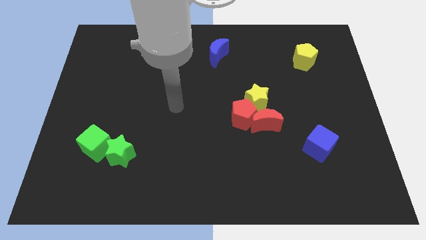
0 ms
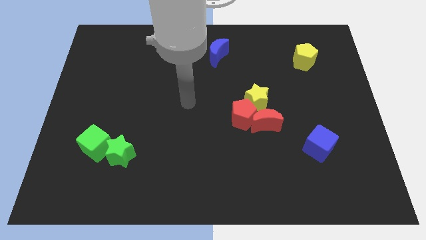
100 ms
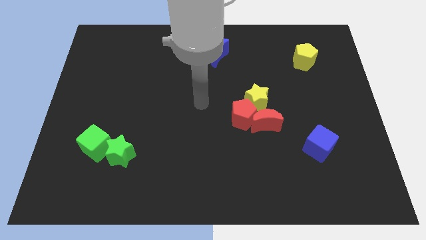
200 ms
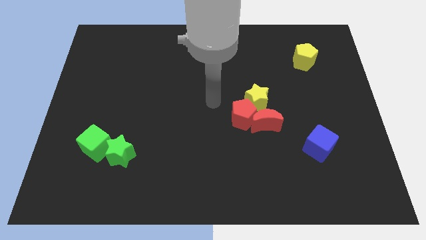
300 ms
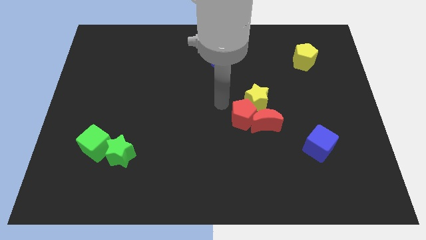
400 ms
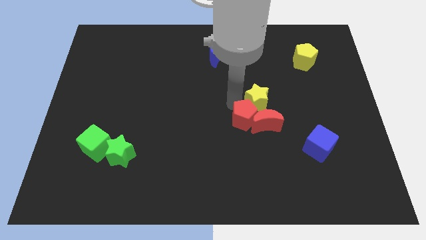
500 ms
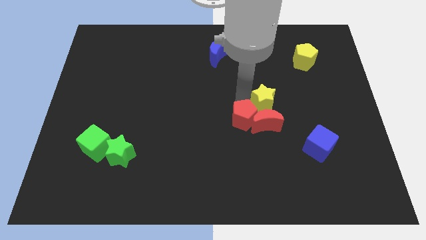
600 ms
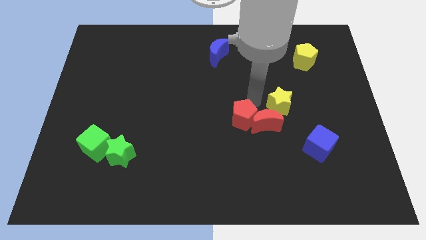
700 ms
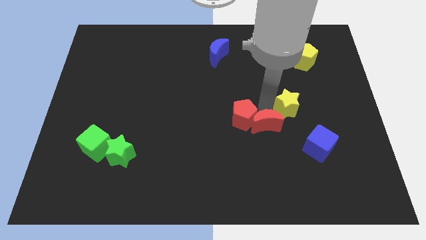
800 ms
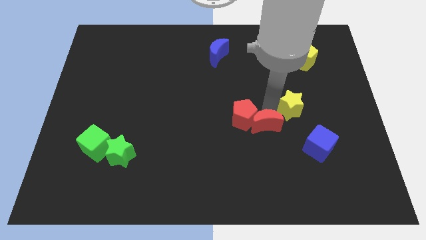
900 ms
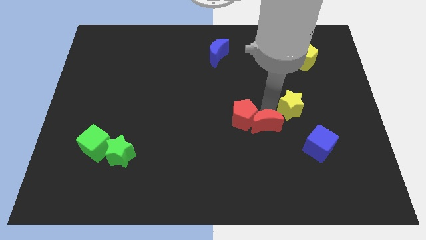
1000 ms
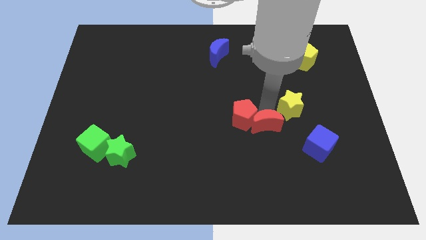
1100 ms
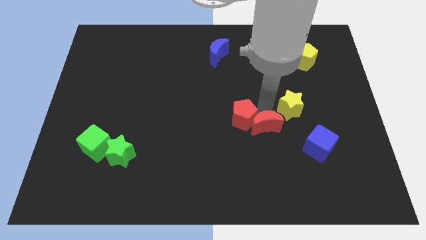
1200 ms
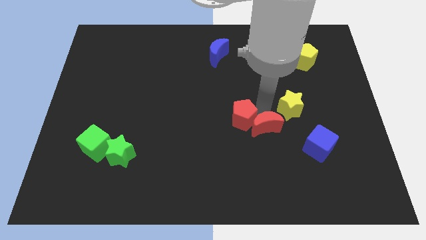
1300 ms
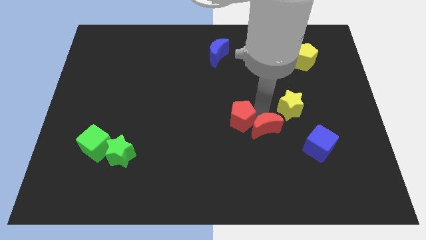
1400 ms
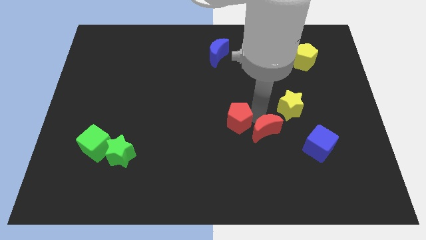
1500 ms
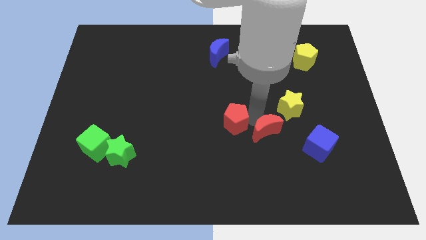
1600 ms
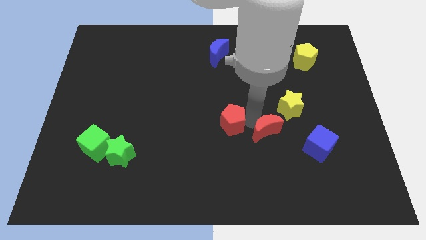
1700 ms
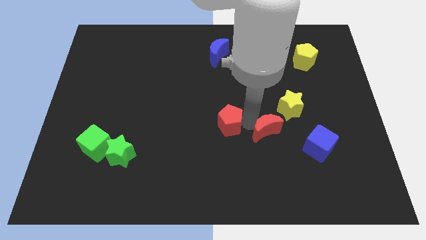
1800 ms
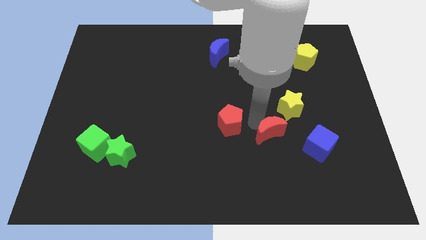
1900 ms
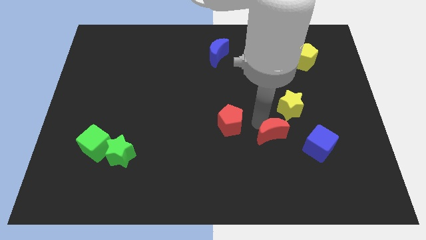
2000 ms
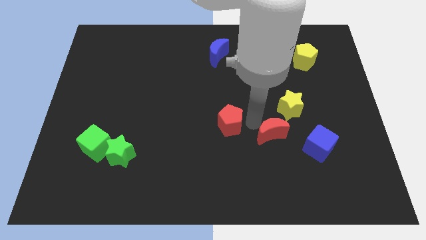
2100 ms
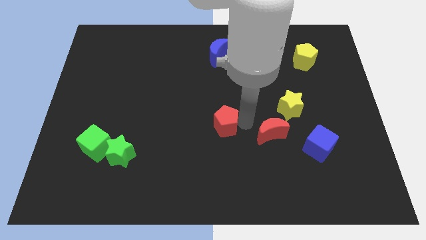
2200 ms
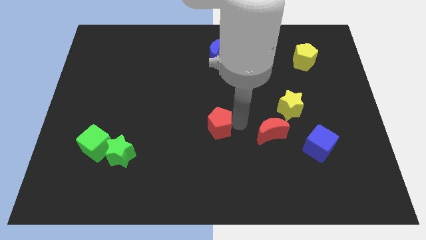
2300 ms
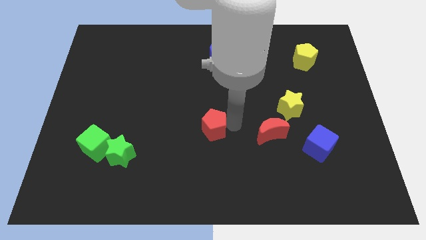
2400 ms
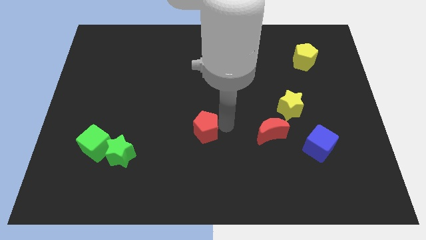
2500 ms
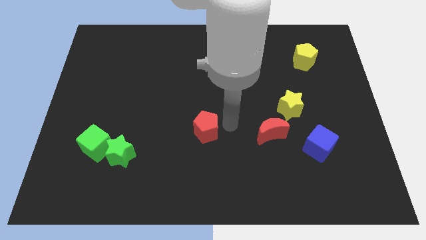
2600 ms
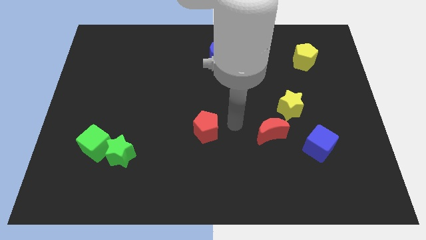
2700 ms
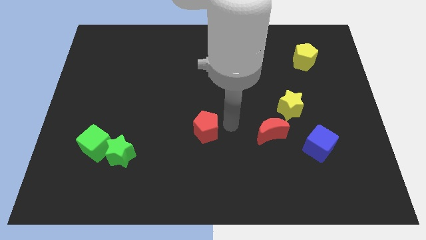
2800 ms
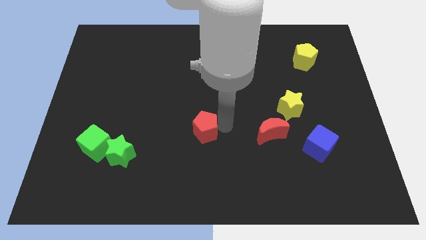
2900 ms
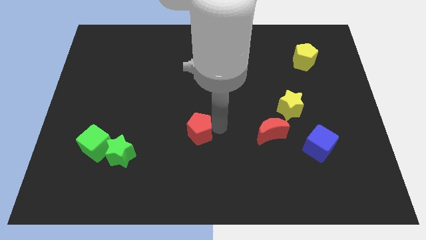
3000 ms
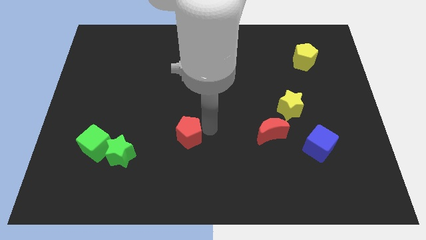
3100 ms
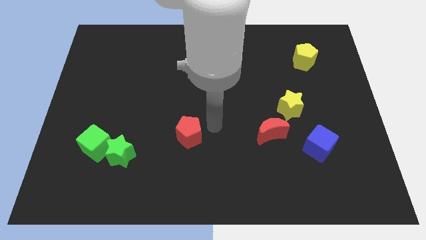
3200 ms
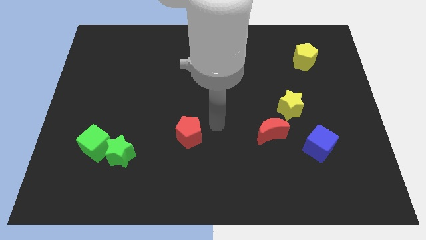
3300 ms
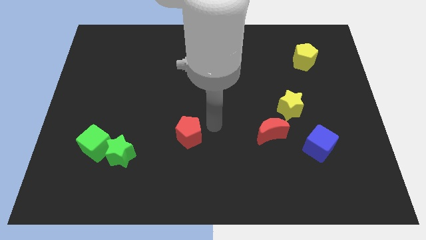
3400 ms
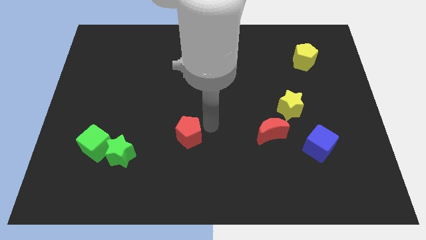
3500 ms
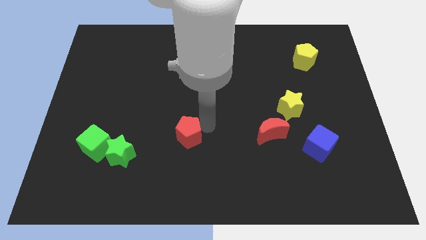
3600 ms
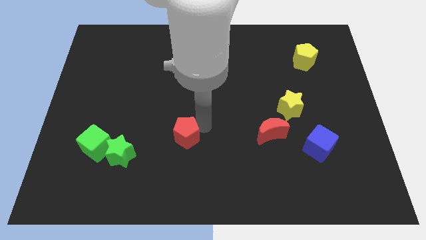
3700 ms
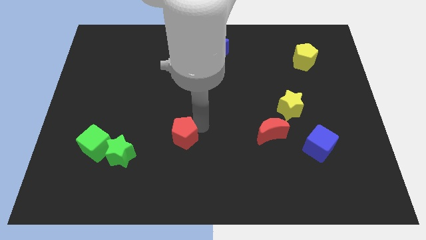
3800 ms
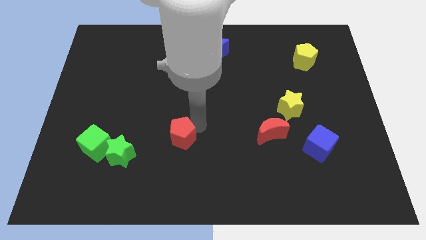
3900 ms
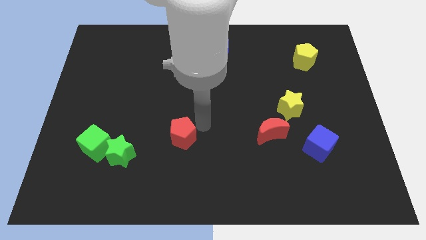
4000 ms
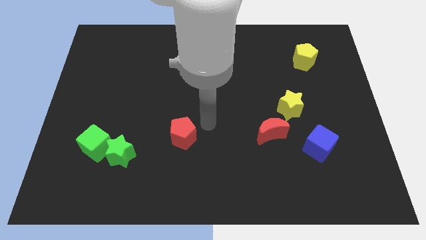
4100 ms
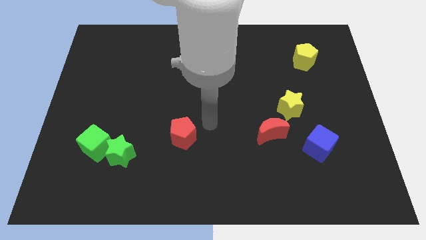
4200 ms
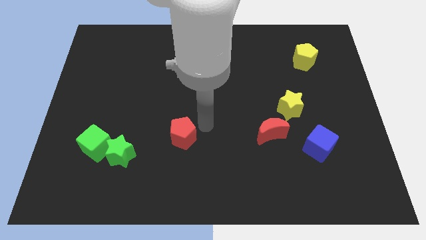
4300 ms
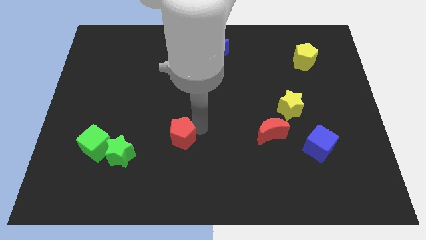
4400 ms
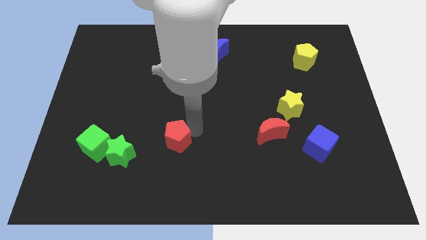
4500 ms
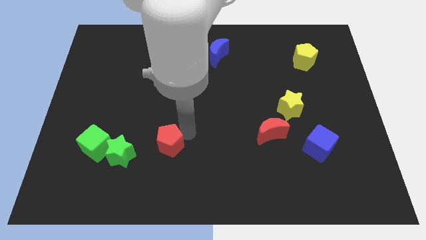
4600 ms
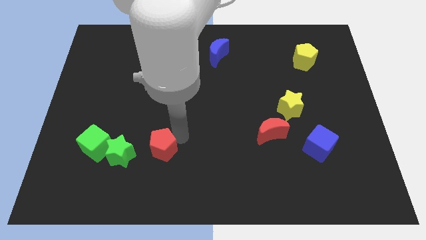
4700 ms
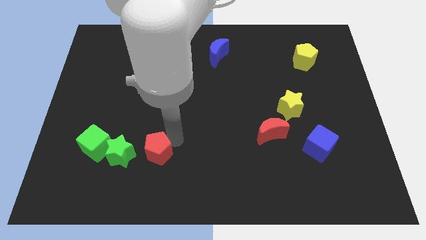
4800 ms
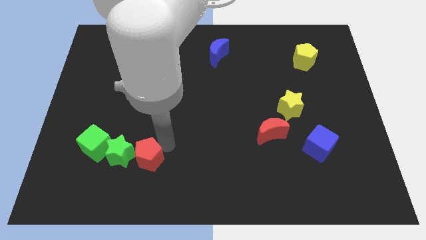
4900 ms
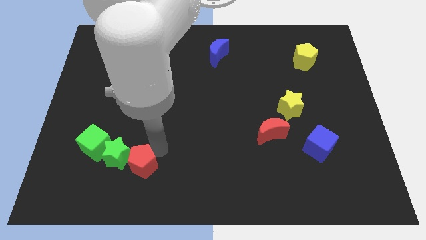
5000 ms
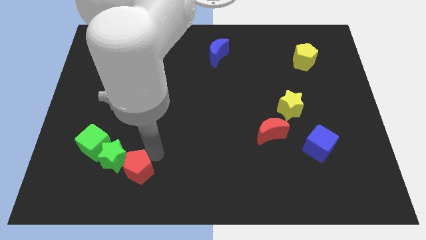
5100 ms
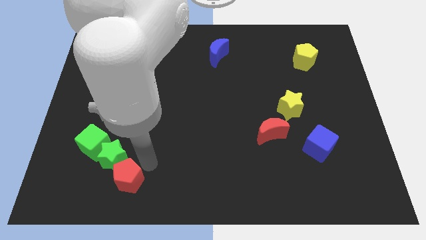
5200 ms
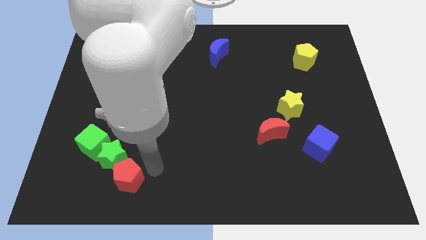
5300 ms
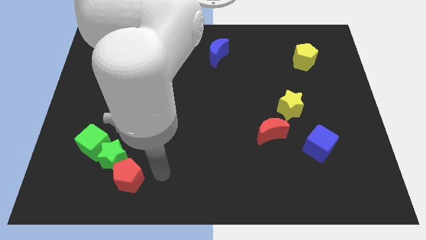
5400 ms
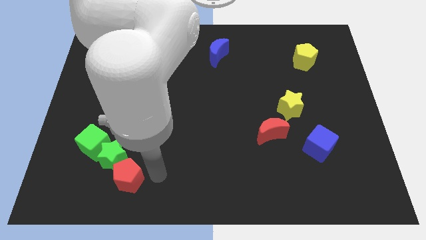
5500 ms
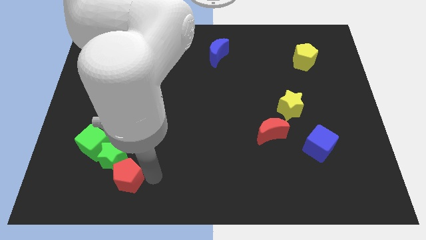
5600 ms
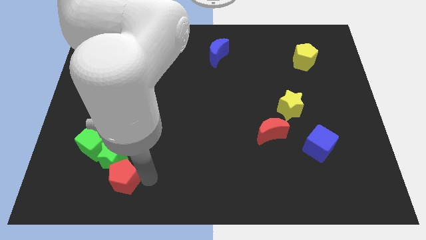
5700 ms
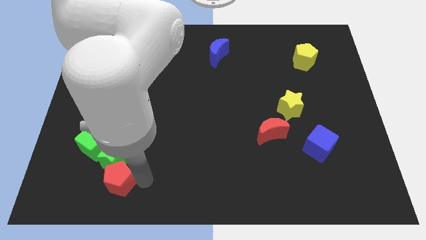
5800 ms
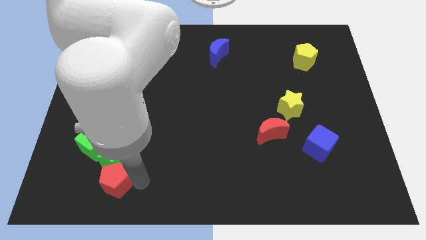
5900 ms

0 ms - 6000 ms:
move the red pentagon diagonally down and to the left of the green star
